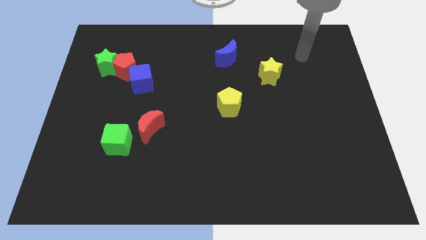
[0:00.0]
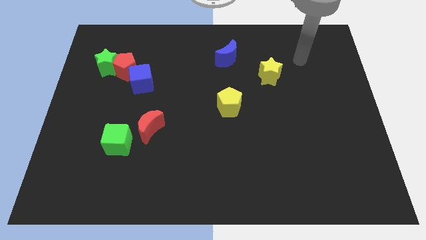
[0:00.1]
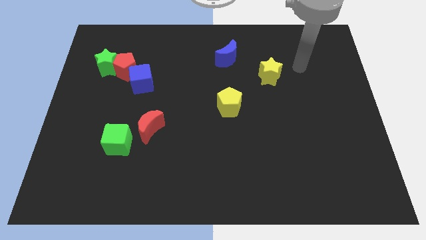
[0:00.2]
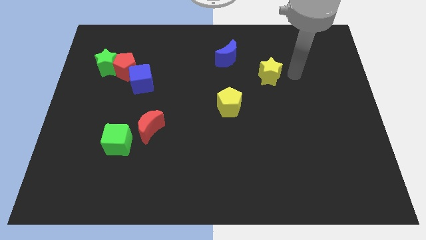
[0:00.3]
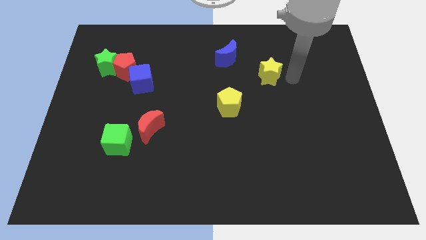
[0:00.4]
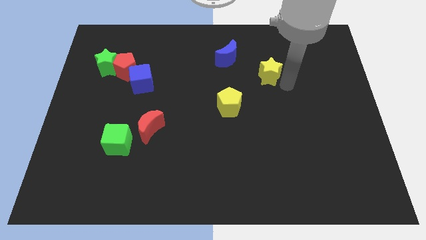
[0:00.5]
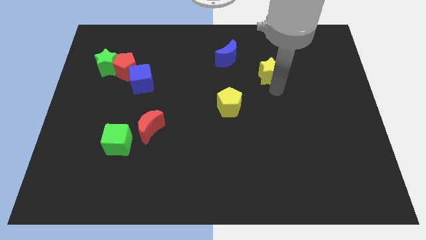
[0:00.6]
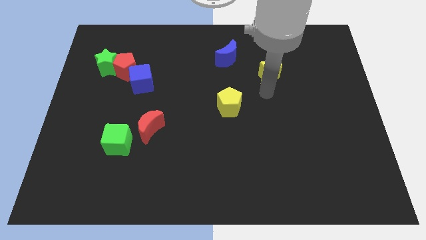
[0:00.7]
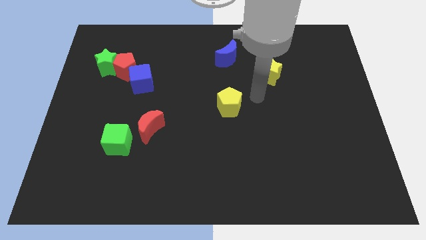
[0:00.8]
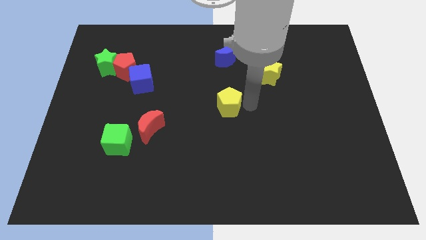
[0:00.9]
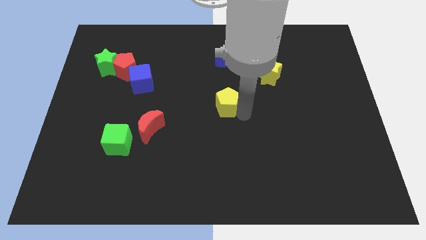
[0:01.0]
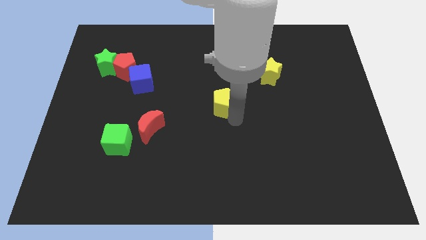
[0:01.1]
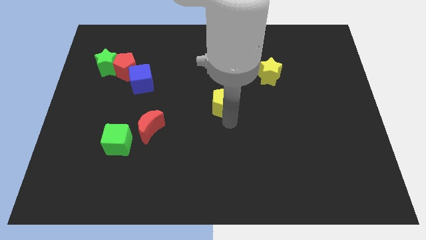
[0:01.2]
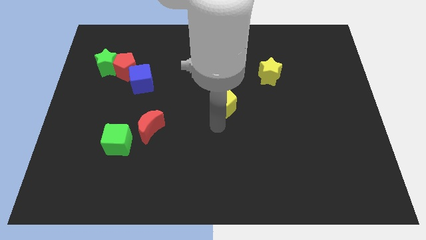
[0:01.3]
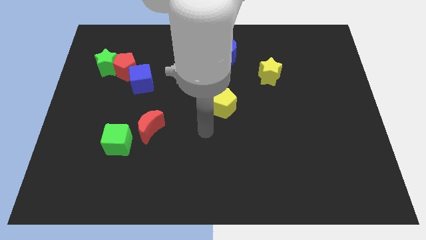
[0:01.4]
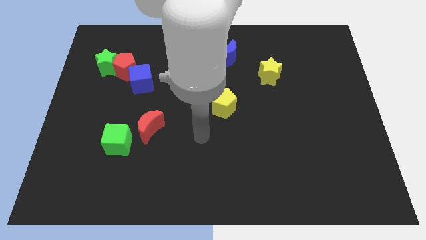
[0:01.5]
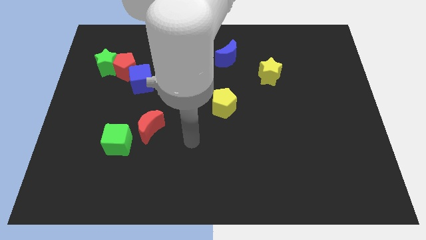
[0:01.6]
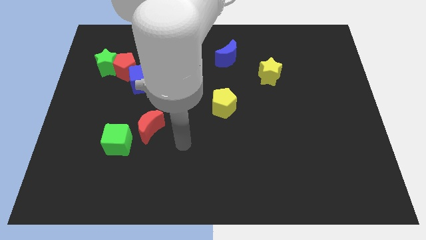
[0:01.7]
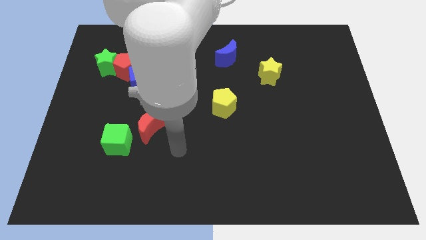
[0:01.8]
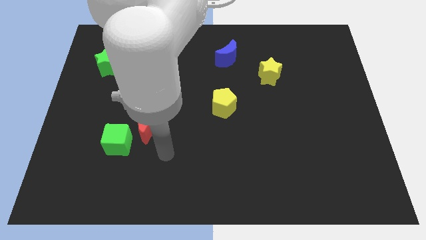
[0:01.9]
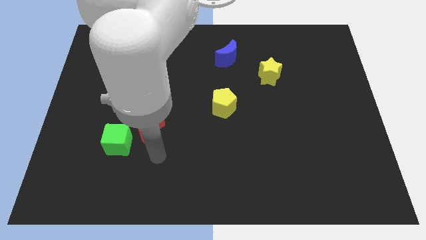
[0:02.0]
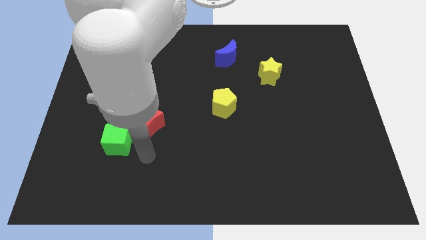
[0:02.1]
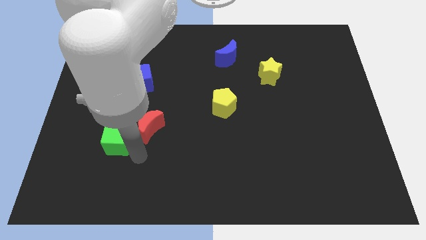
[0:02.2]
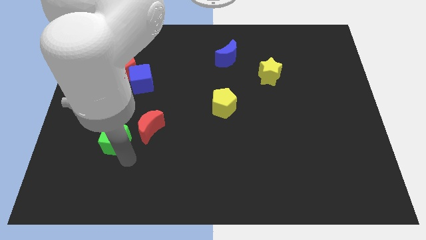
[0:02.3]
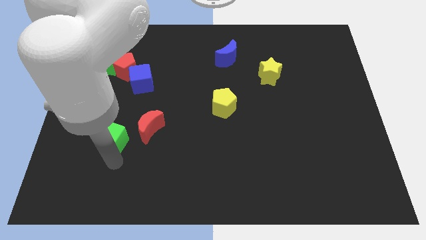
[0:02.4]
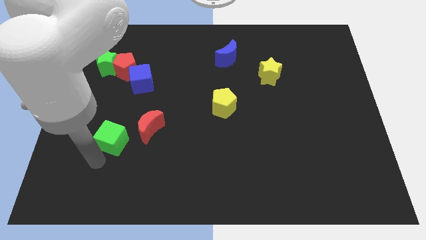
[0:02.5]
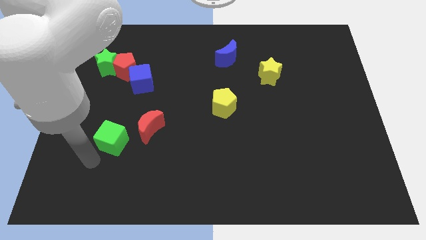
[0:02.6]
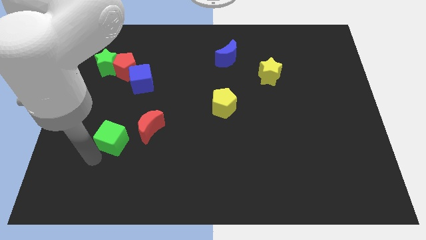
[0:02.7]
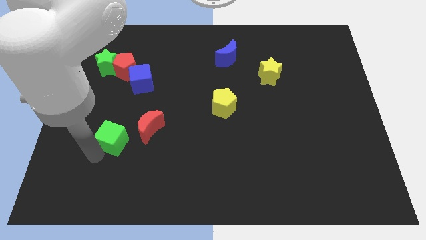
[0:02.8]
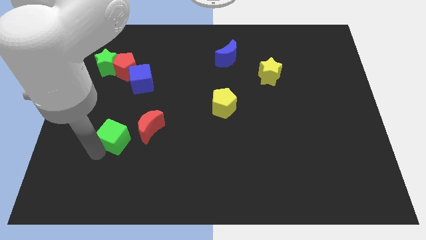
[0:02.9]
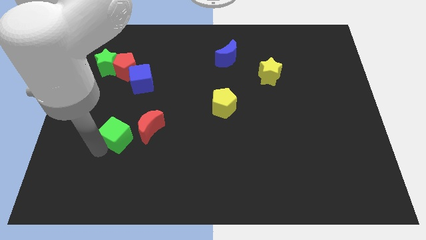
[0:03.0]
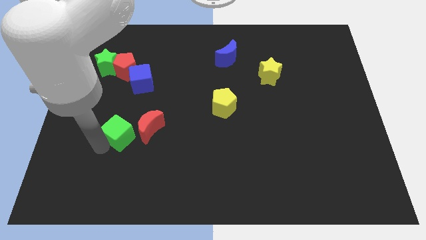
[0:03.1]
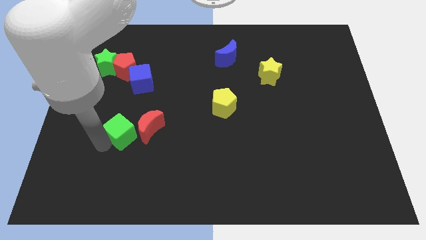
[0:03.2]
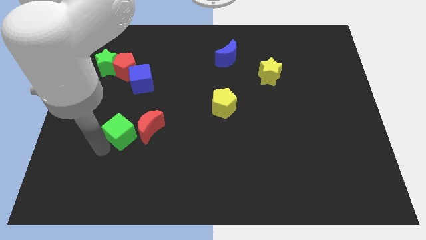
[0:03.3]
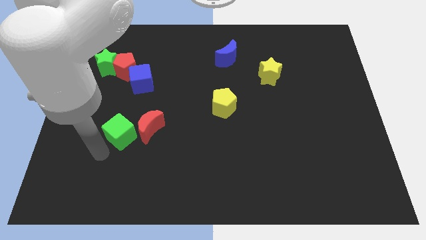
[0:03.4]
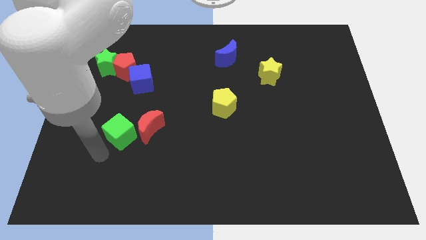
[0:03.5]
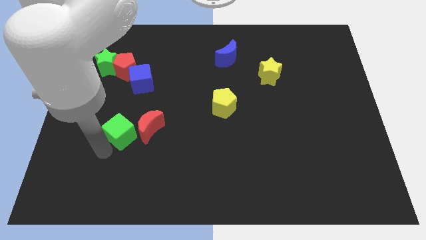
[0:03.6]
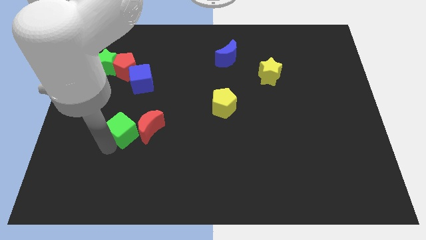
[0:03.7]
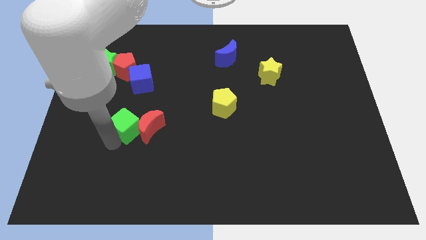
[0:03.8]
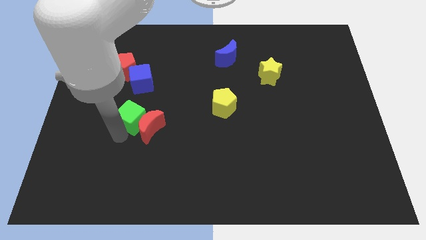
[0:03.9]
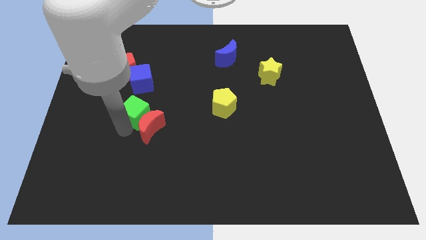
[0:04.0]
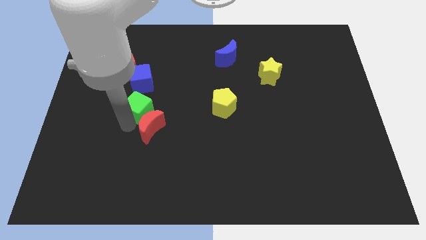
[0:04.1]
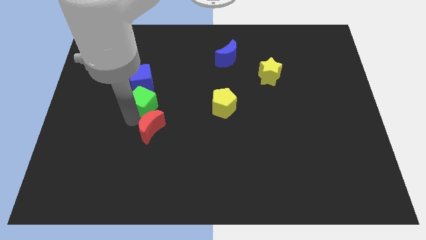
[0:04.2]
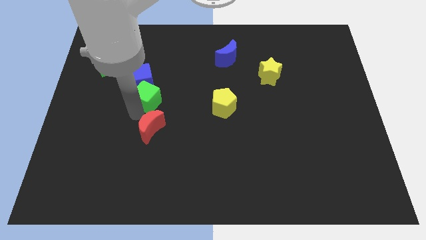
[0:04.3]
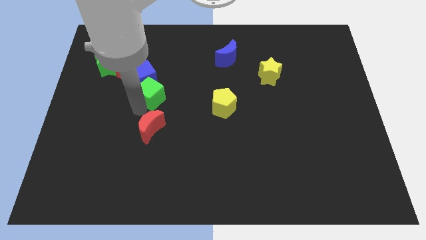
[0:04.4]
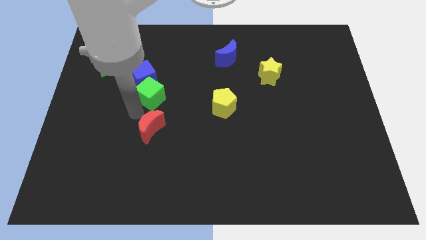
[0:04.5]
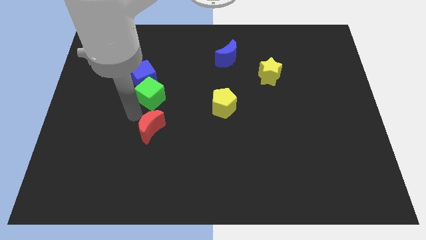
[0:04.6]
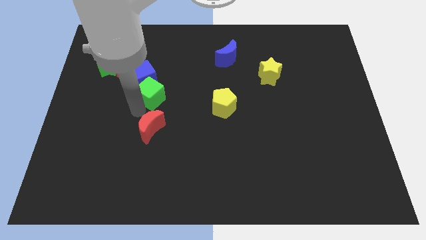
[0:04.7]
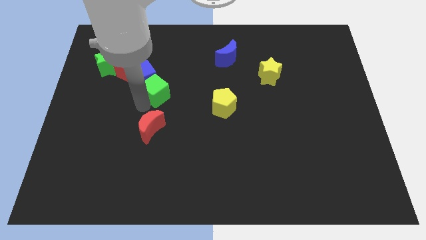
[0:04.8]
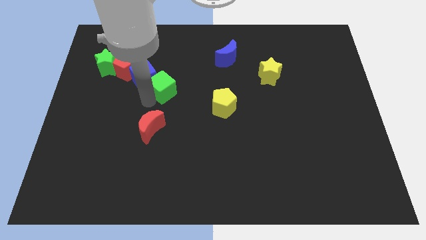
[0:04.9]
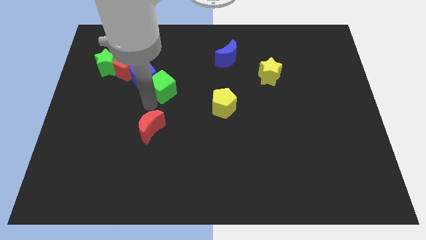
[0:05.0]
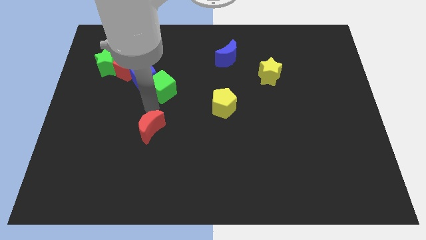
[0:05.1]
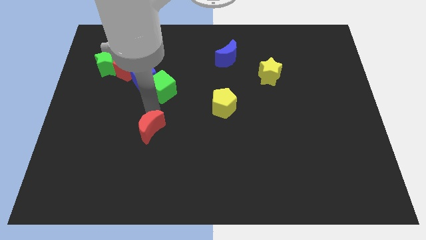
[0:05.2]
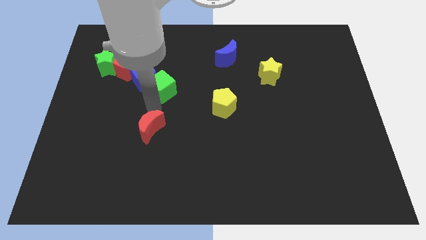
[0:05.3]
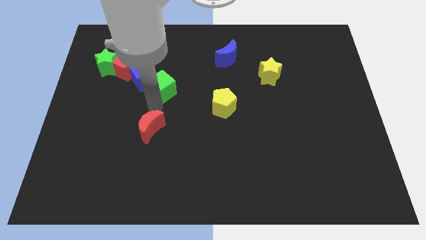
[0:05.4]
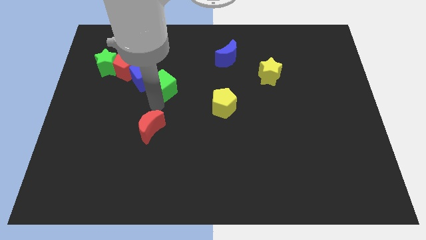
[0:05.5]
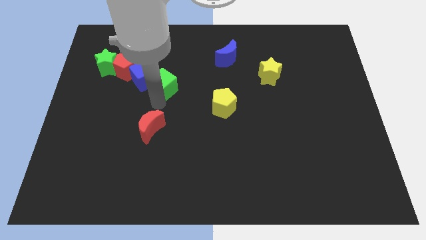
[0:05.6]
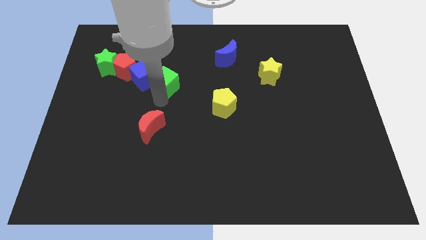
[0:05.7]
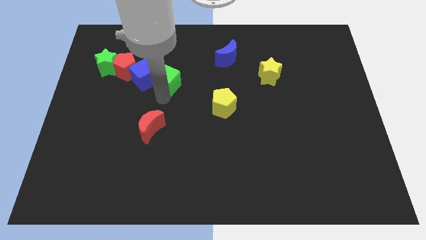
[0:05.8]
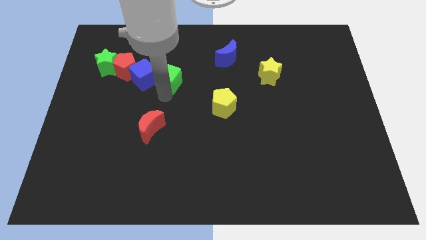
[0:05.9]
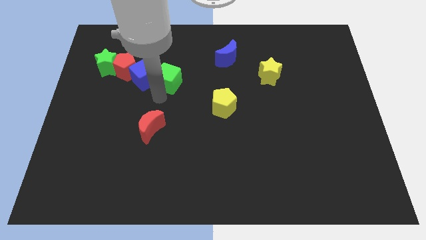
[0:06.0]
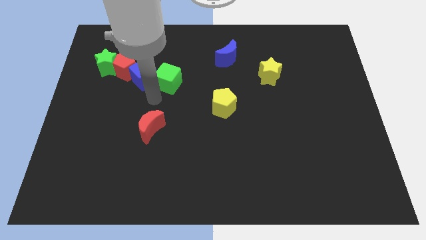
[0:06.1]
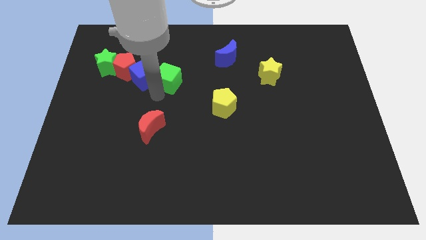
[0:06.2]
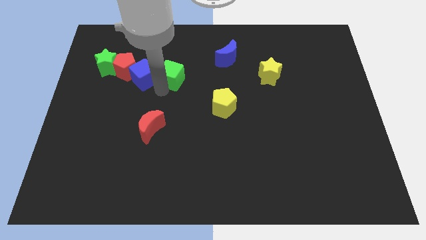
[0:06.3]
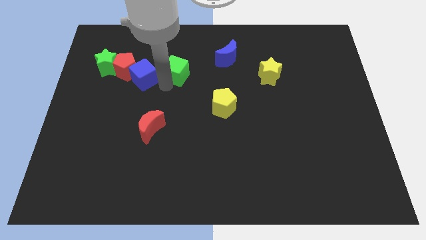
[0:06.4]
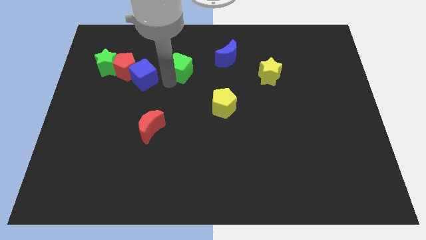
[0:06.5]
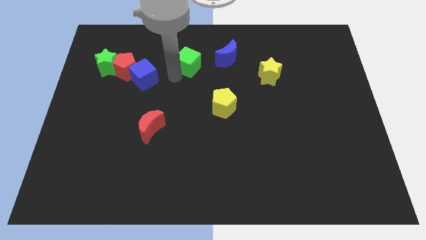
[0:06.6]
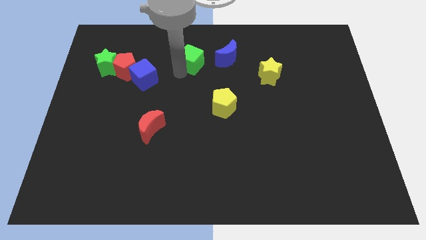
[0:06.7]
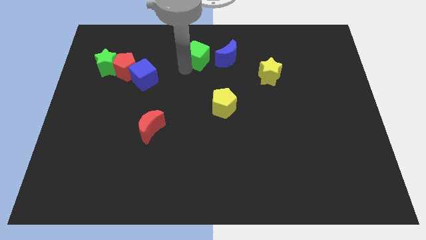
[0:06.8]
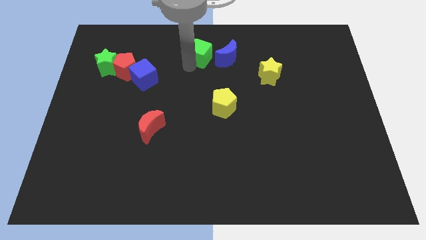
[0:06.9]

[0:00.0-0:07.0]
put the green cube to the top side
